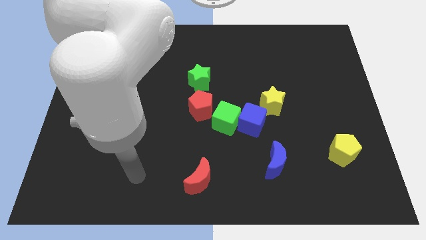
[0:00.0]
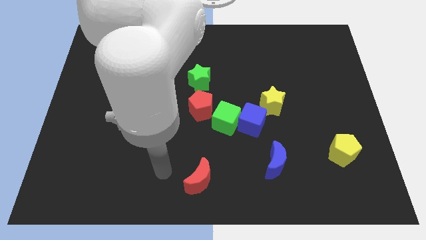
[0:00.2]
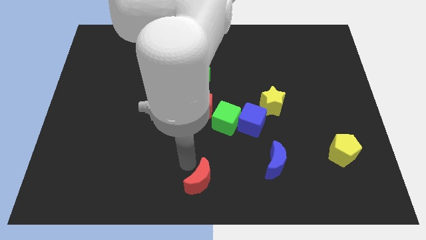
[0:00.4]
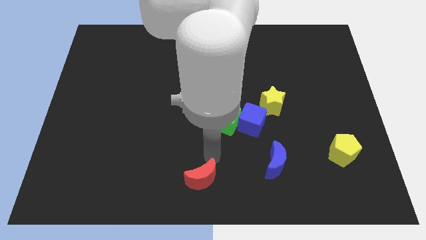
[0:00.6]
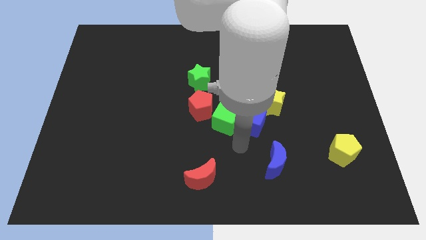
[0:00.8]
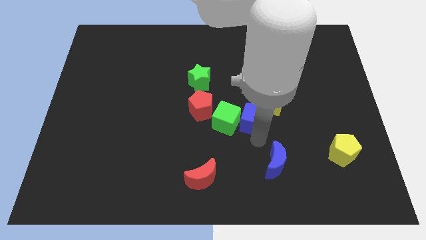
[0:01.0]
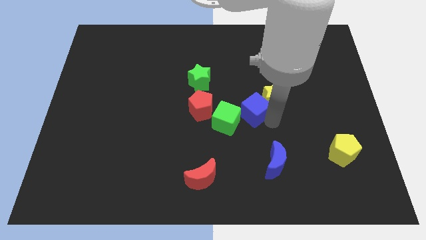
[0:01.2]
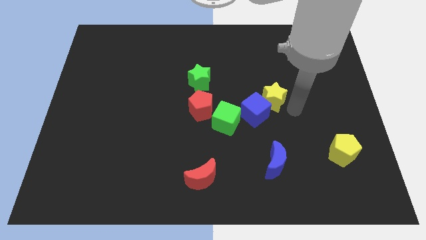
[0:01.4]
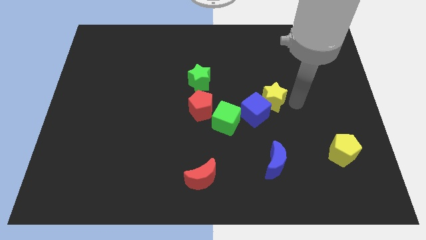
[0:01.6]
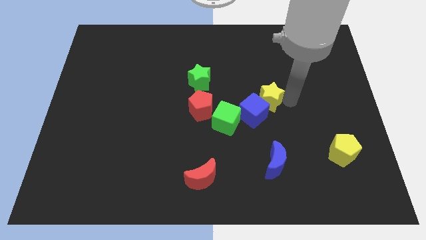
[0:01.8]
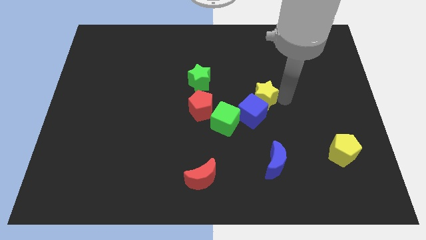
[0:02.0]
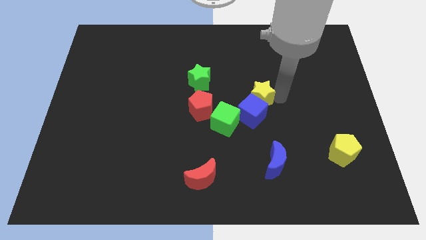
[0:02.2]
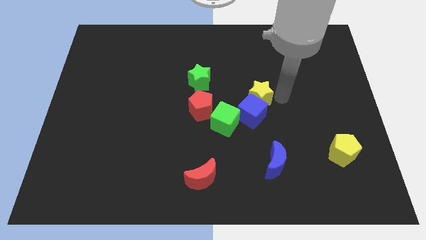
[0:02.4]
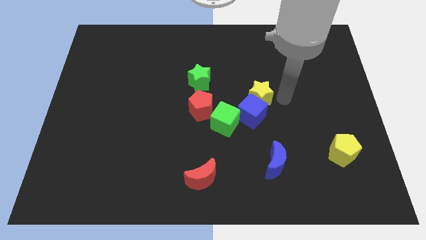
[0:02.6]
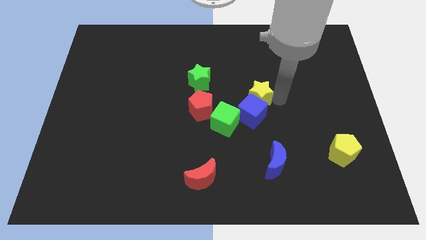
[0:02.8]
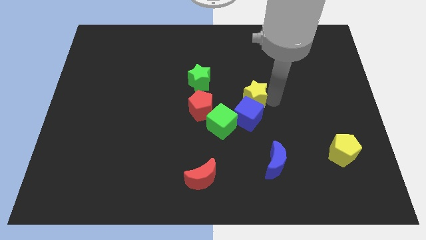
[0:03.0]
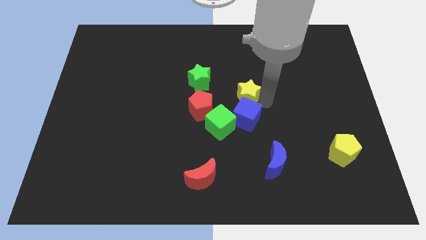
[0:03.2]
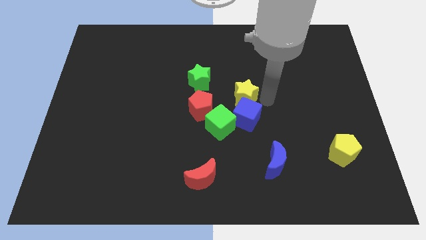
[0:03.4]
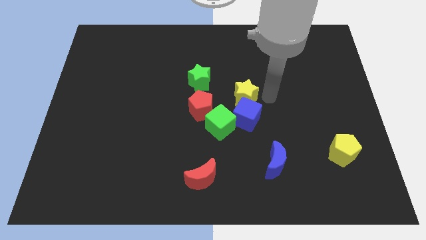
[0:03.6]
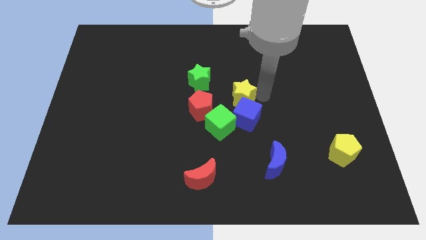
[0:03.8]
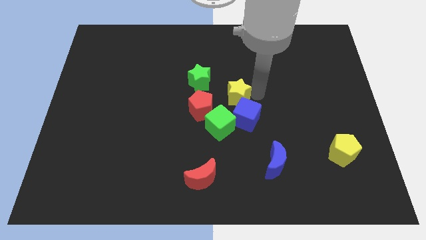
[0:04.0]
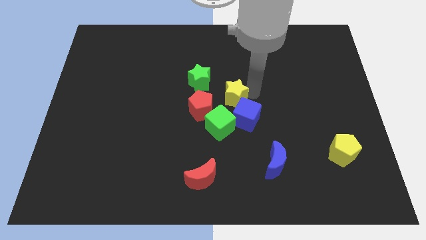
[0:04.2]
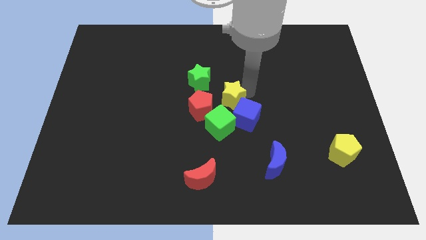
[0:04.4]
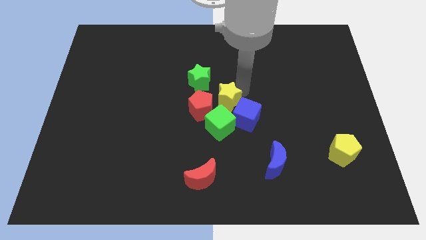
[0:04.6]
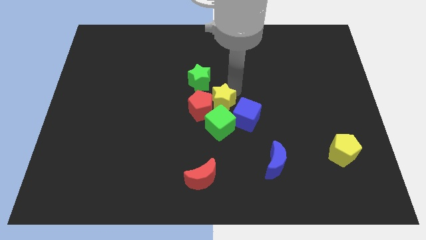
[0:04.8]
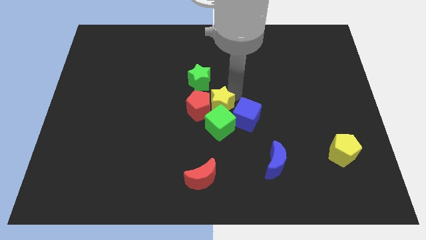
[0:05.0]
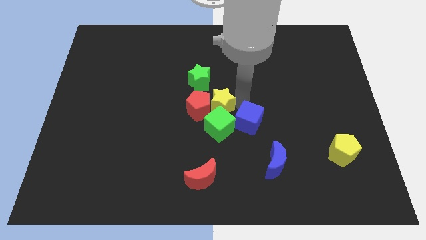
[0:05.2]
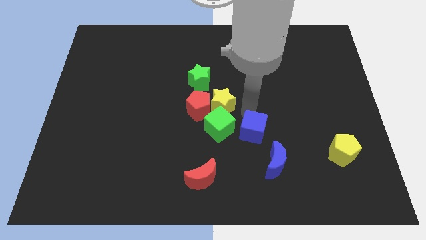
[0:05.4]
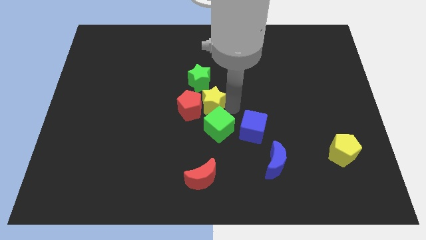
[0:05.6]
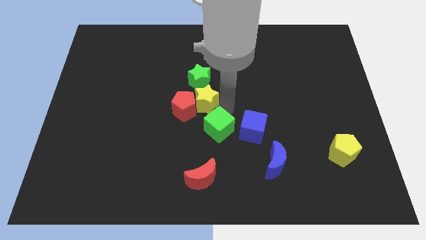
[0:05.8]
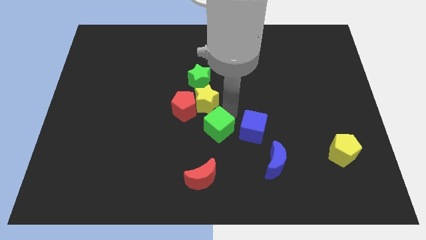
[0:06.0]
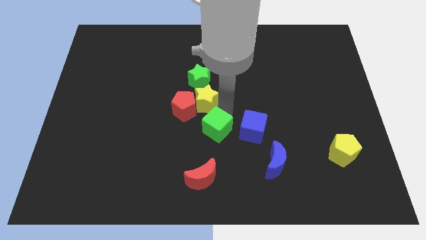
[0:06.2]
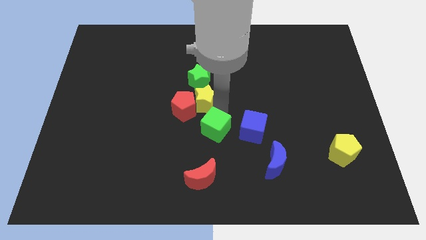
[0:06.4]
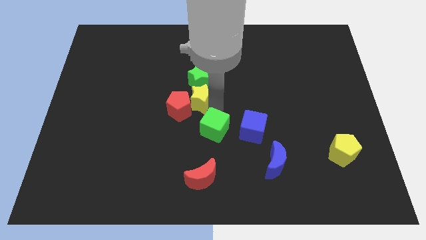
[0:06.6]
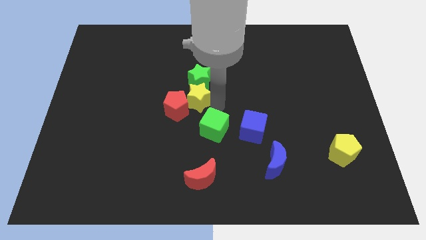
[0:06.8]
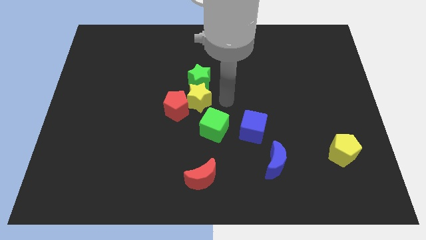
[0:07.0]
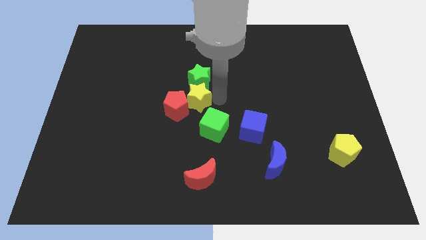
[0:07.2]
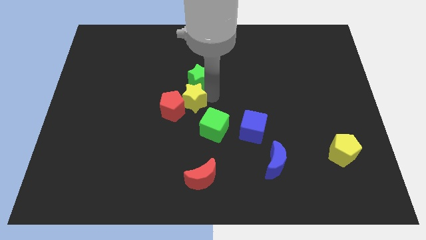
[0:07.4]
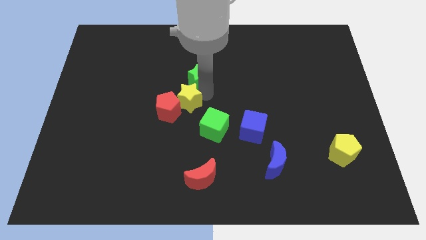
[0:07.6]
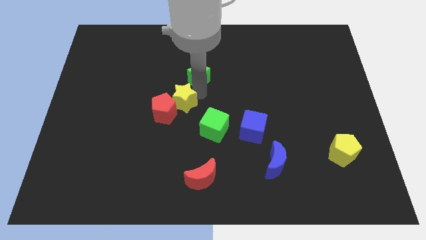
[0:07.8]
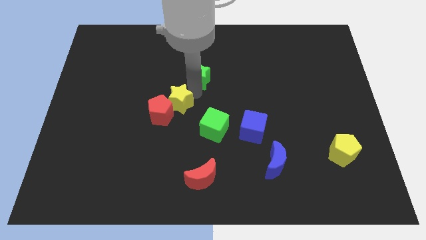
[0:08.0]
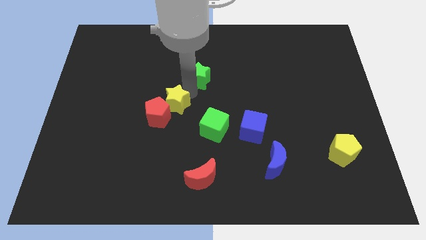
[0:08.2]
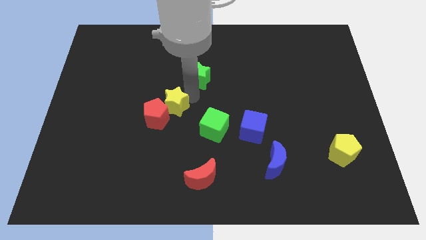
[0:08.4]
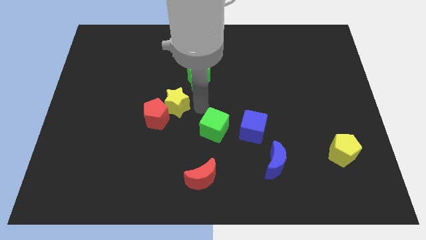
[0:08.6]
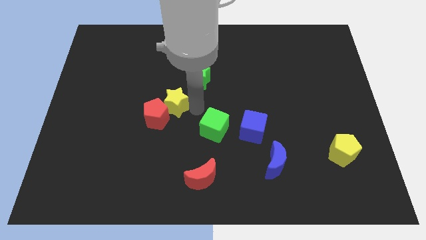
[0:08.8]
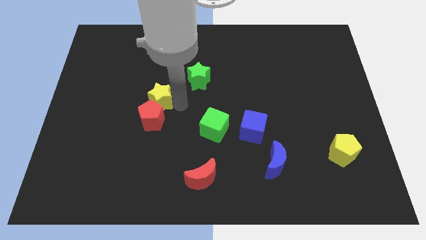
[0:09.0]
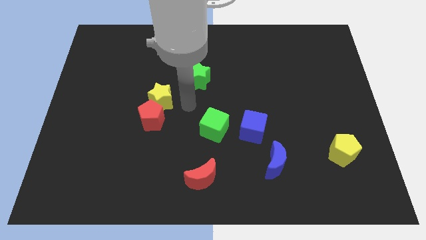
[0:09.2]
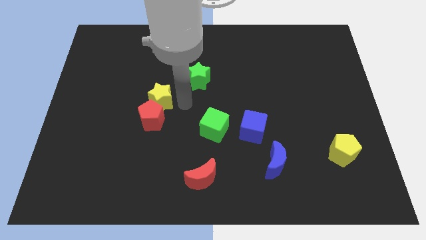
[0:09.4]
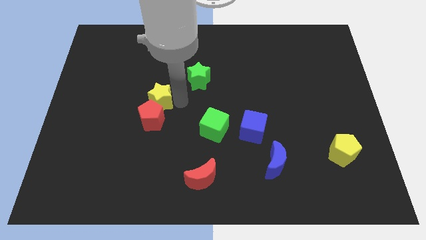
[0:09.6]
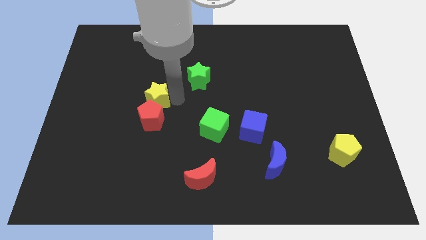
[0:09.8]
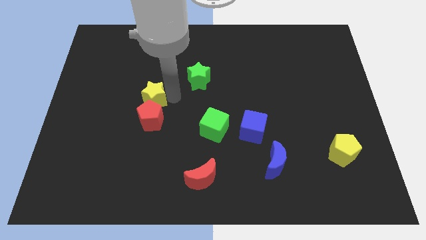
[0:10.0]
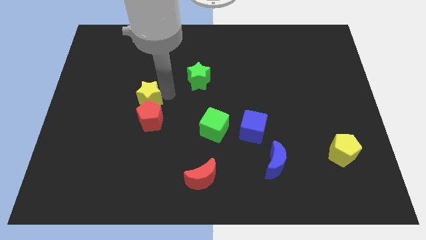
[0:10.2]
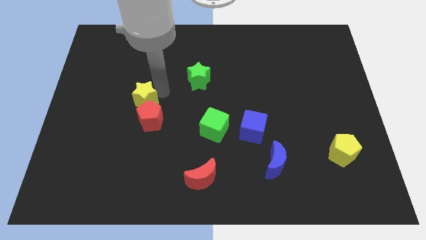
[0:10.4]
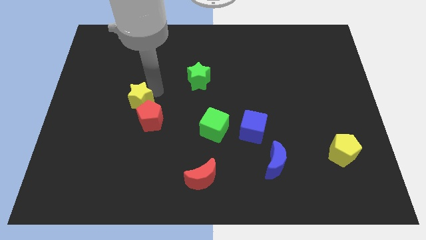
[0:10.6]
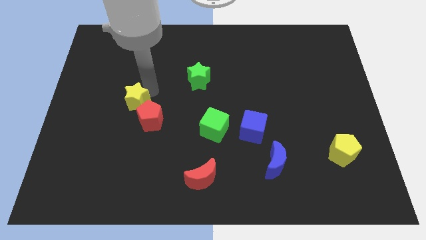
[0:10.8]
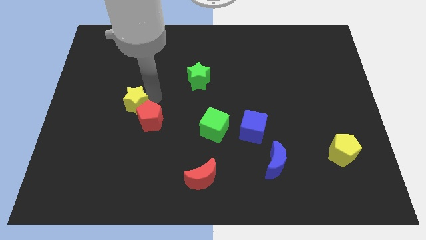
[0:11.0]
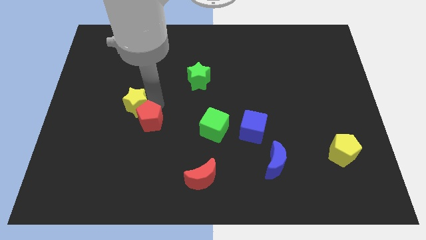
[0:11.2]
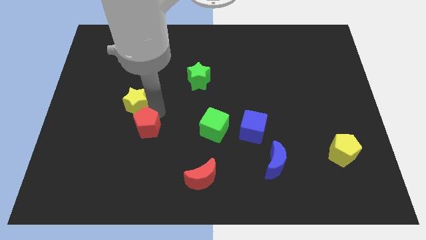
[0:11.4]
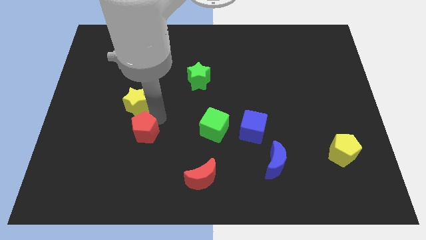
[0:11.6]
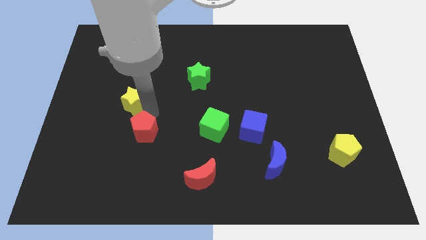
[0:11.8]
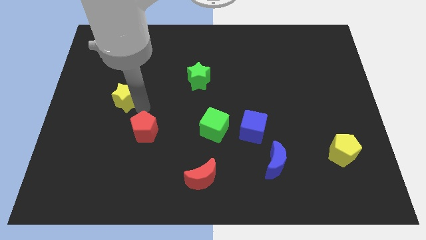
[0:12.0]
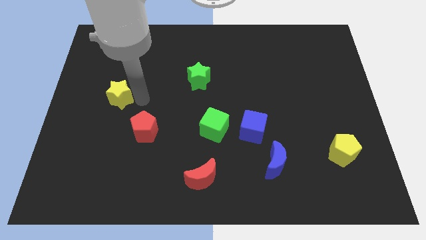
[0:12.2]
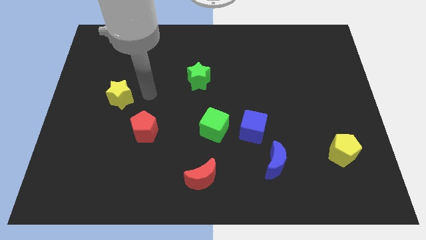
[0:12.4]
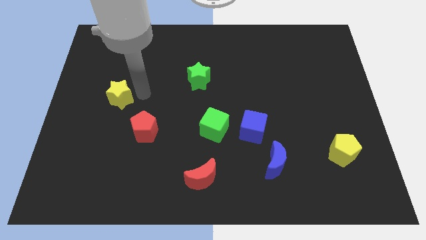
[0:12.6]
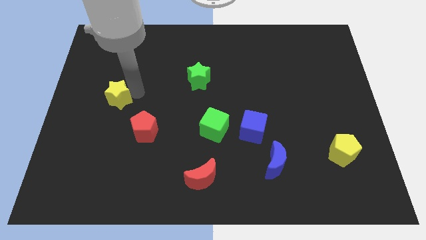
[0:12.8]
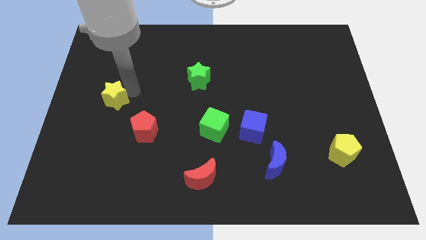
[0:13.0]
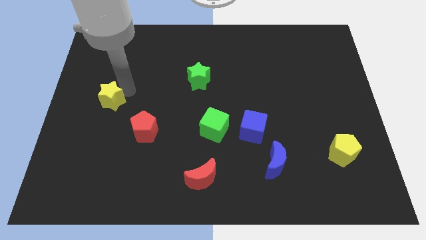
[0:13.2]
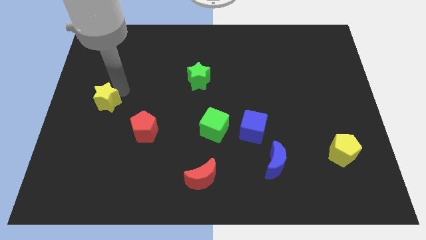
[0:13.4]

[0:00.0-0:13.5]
move the yellow star to the left side
